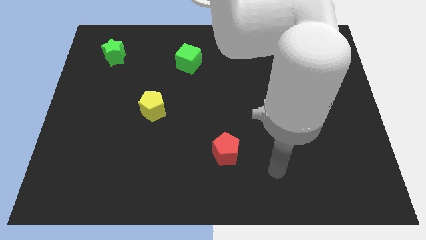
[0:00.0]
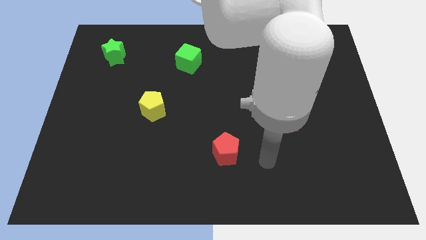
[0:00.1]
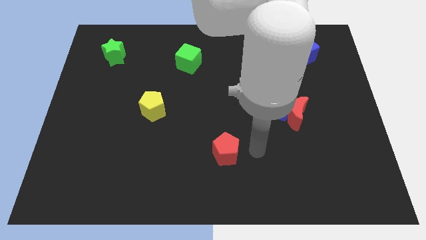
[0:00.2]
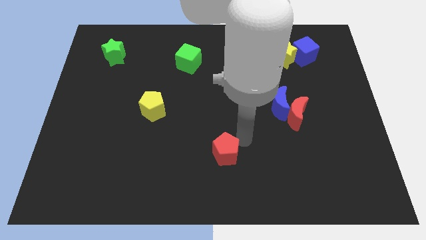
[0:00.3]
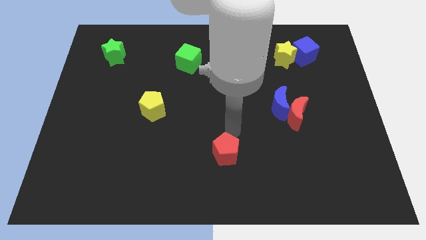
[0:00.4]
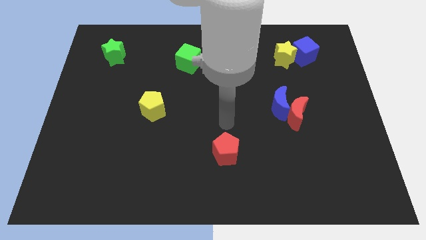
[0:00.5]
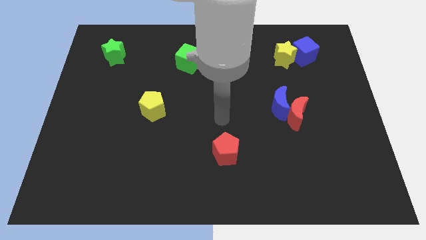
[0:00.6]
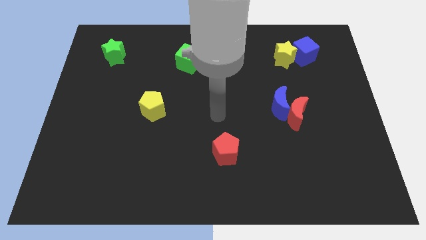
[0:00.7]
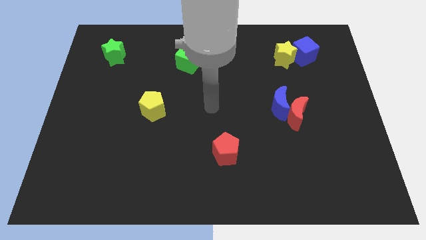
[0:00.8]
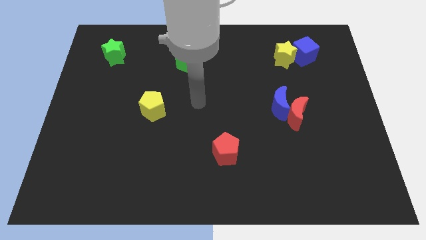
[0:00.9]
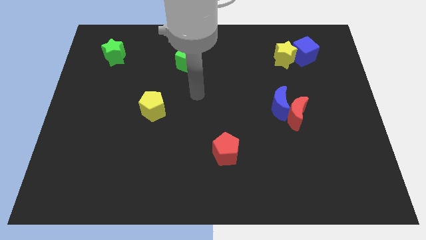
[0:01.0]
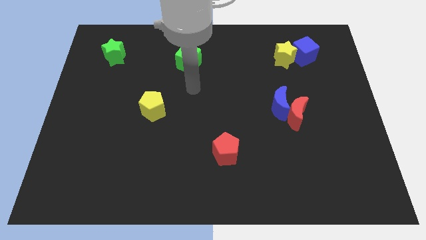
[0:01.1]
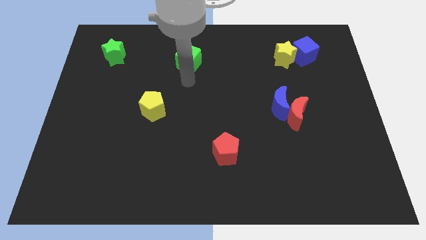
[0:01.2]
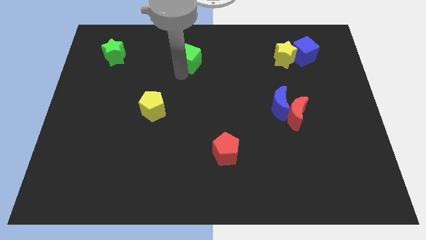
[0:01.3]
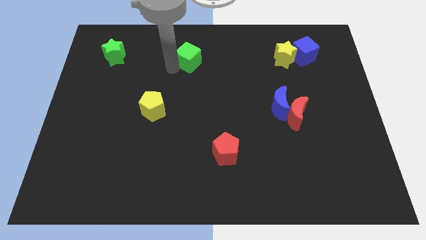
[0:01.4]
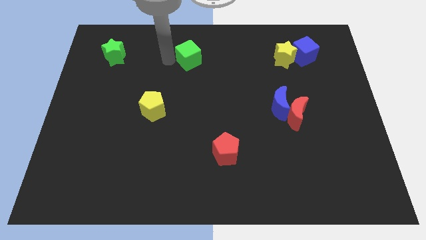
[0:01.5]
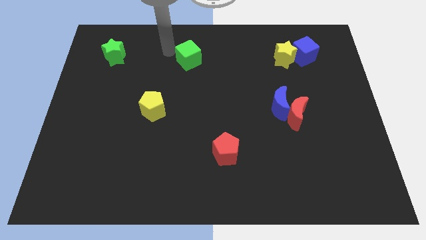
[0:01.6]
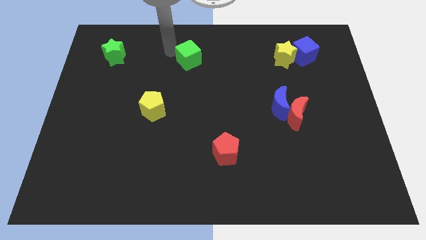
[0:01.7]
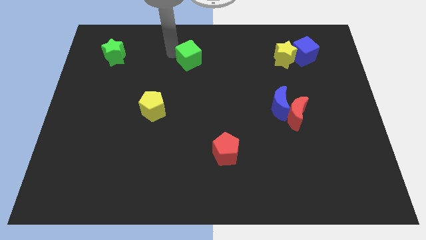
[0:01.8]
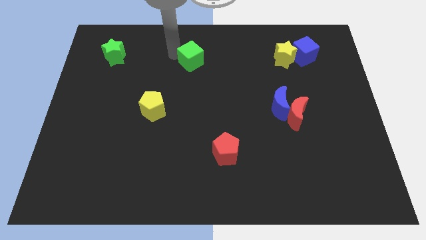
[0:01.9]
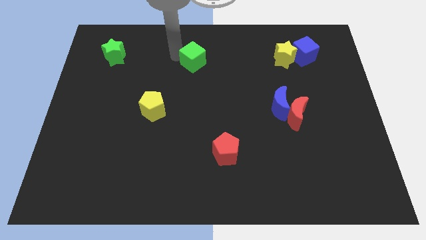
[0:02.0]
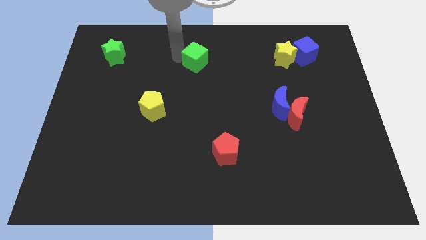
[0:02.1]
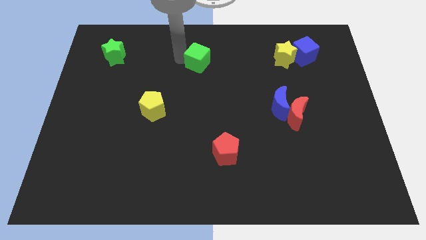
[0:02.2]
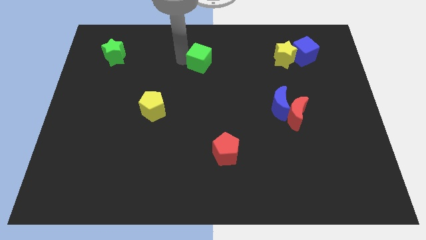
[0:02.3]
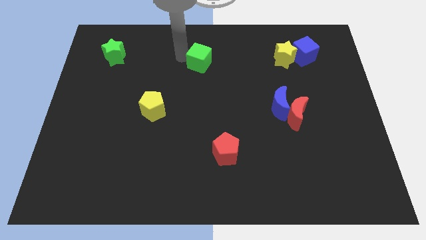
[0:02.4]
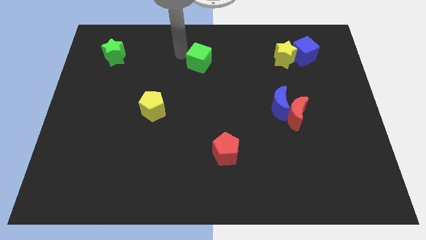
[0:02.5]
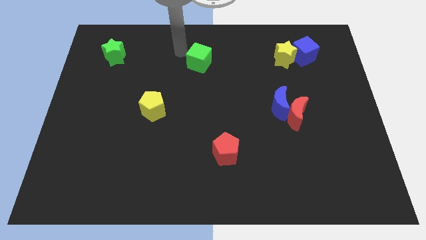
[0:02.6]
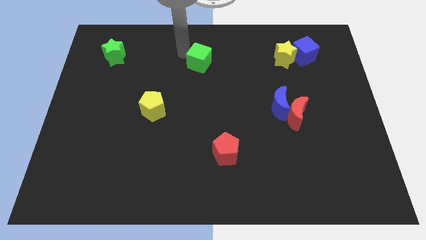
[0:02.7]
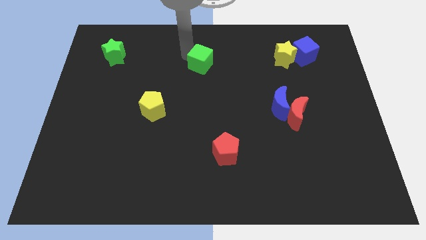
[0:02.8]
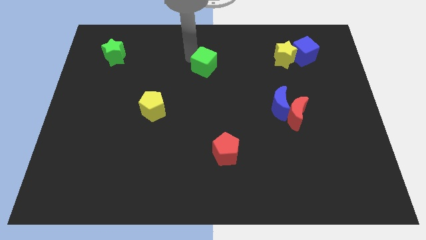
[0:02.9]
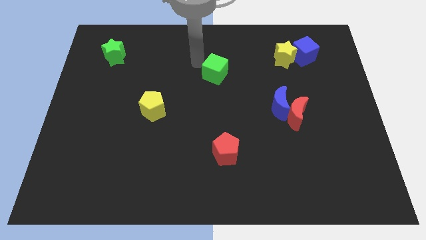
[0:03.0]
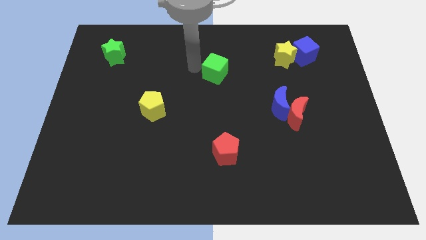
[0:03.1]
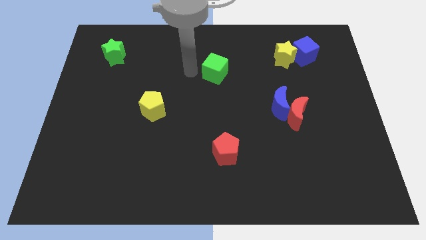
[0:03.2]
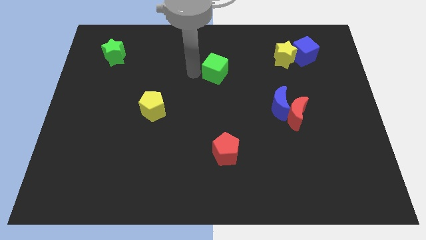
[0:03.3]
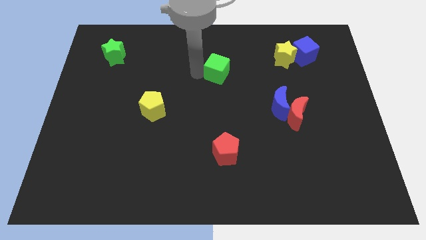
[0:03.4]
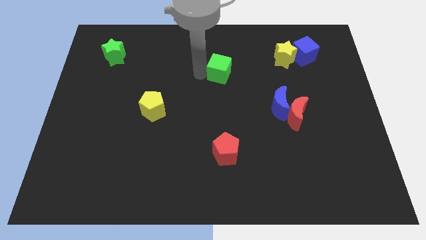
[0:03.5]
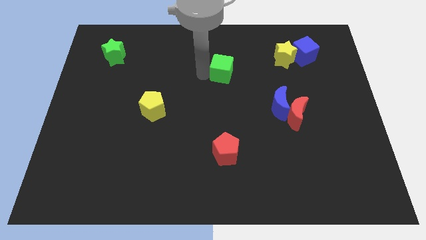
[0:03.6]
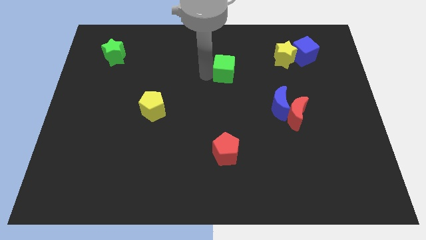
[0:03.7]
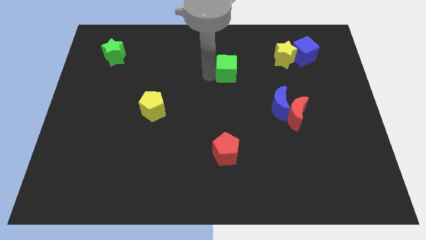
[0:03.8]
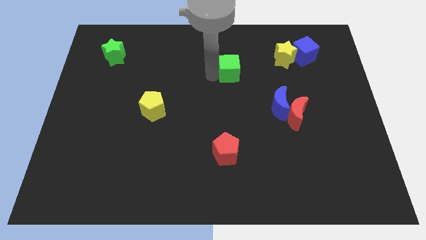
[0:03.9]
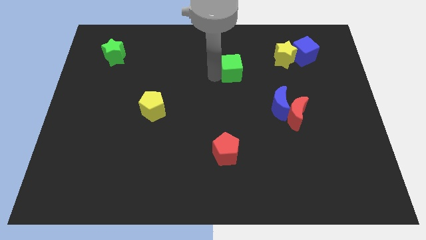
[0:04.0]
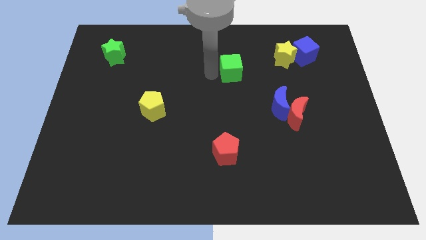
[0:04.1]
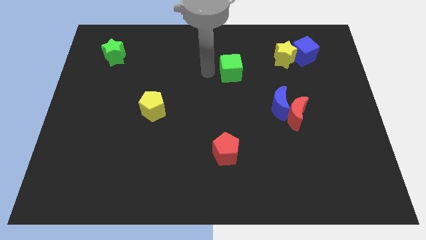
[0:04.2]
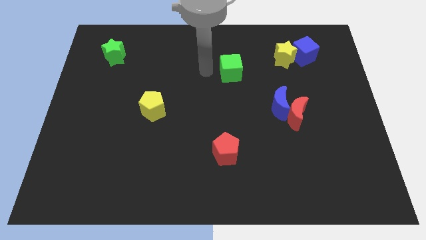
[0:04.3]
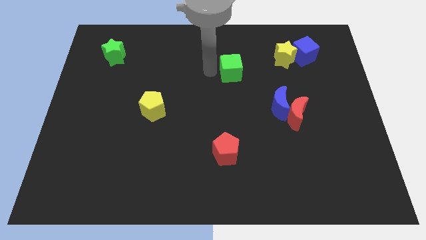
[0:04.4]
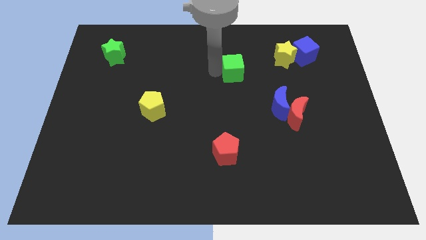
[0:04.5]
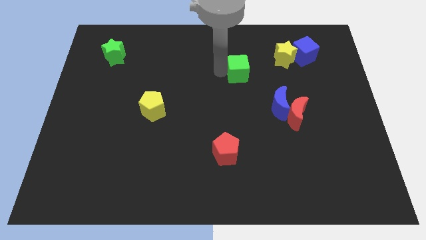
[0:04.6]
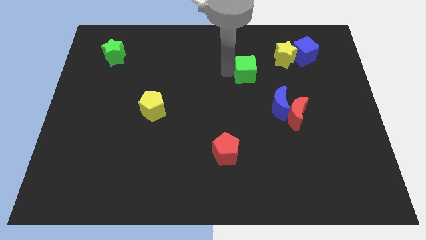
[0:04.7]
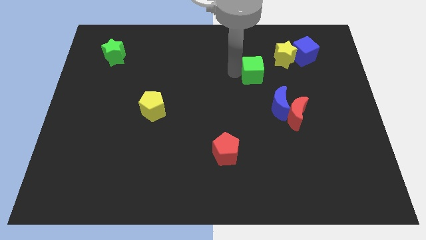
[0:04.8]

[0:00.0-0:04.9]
slide the green cube to the bottom left of the yellow star

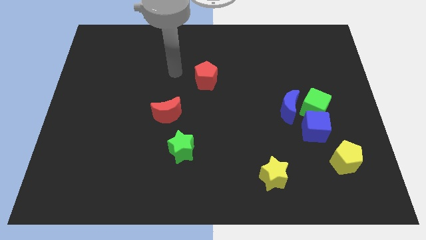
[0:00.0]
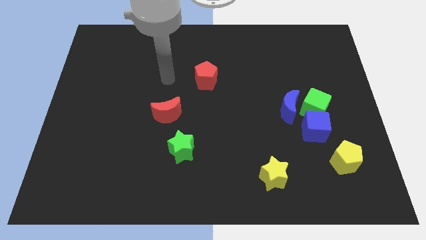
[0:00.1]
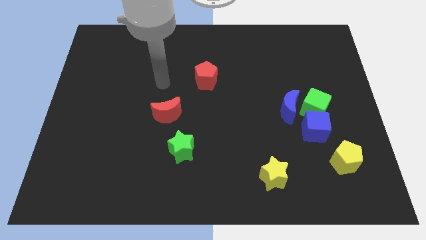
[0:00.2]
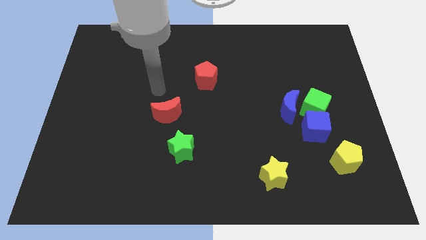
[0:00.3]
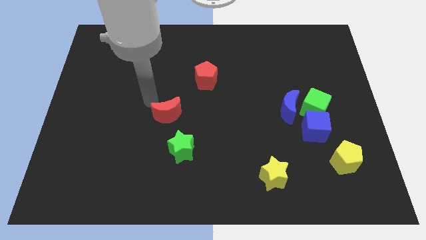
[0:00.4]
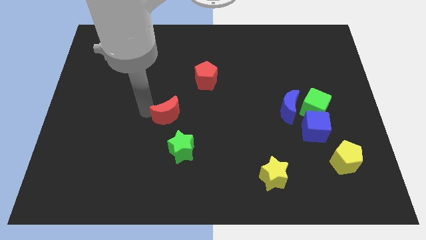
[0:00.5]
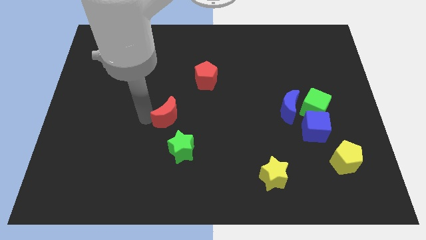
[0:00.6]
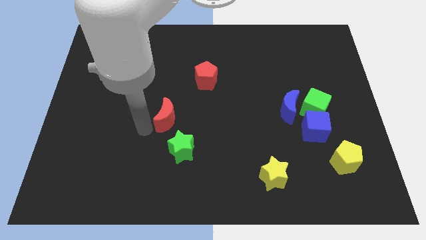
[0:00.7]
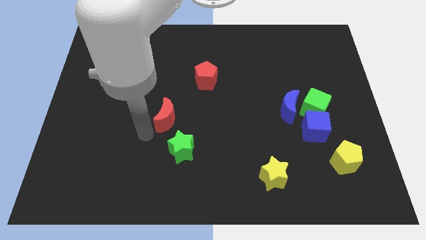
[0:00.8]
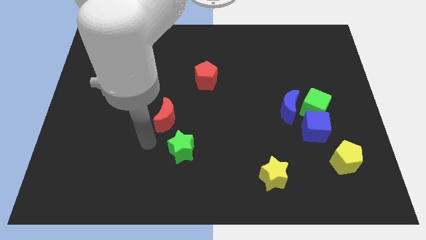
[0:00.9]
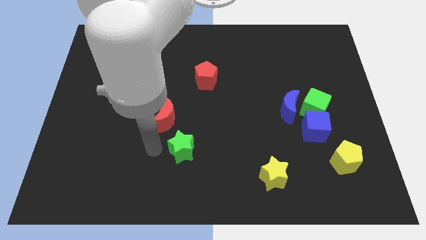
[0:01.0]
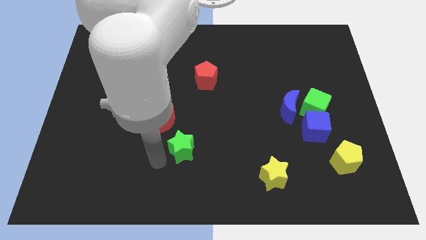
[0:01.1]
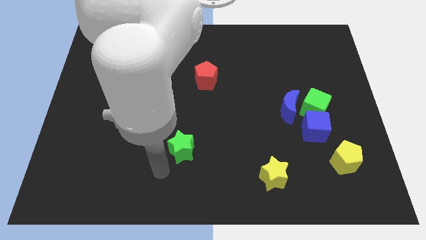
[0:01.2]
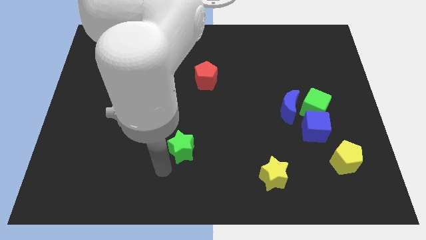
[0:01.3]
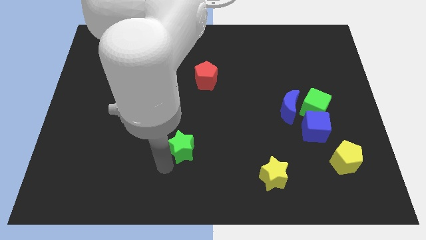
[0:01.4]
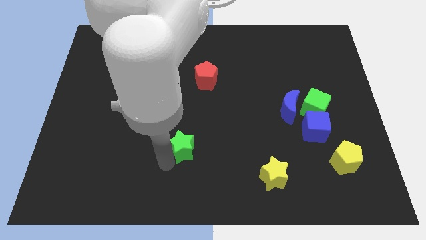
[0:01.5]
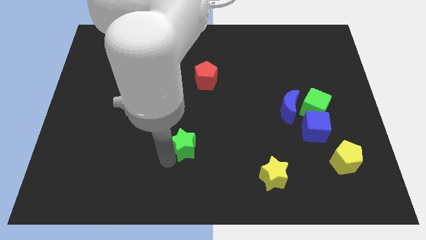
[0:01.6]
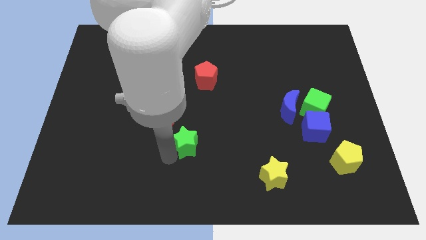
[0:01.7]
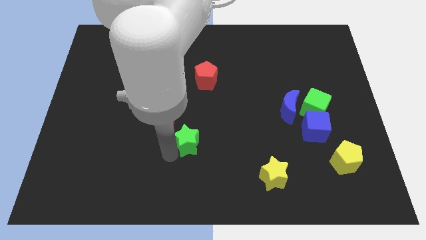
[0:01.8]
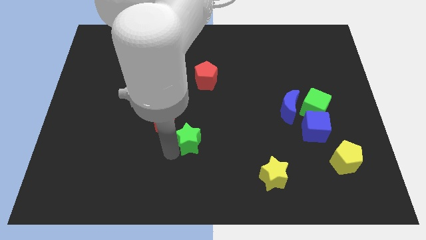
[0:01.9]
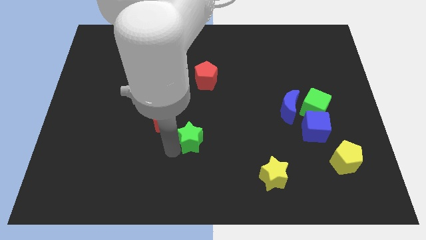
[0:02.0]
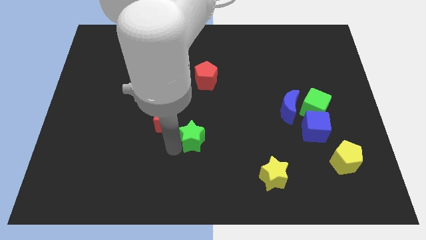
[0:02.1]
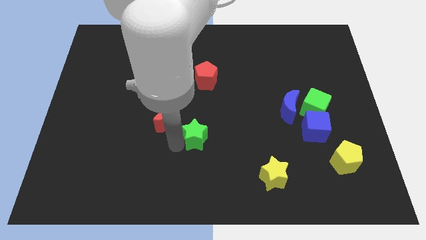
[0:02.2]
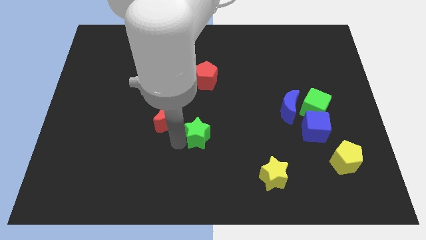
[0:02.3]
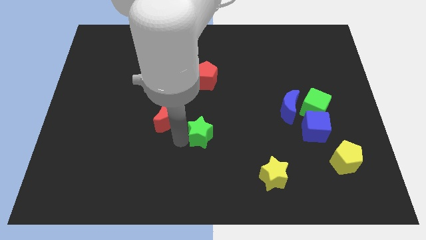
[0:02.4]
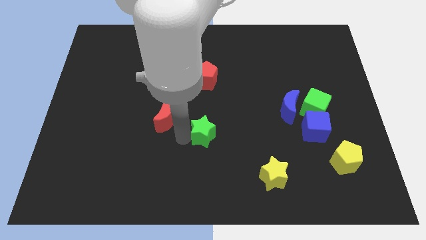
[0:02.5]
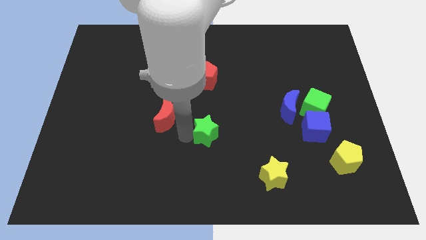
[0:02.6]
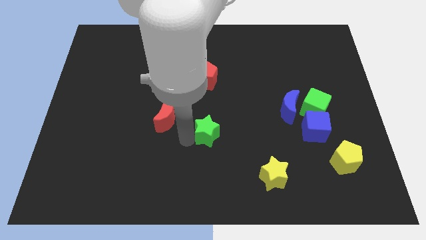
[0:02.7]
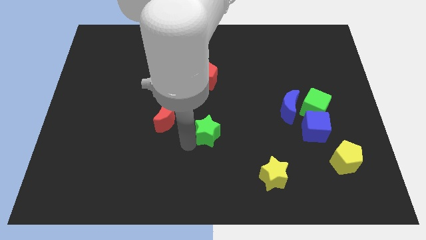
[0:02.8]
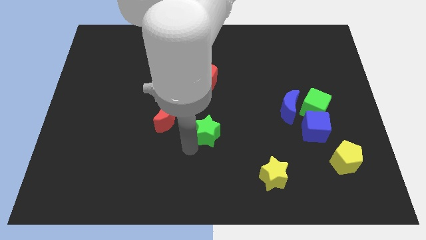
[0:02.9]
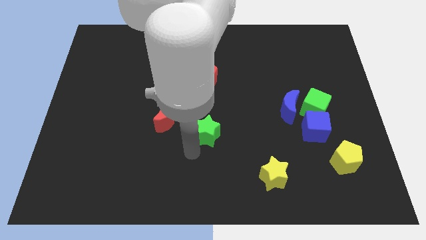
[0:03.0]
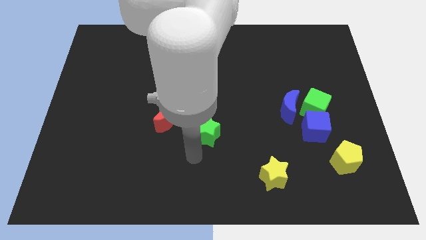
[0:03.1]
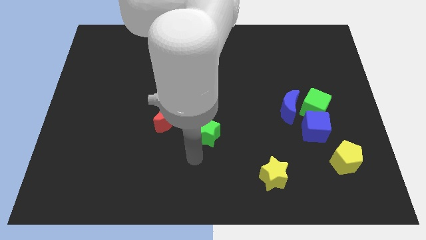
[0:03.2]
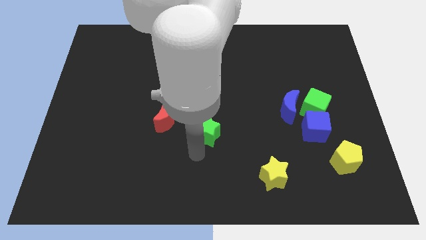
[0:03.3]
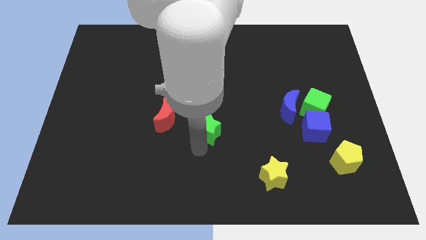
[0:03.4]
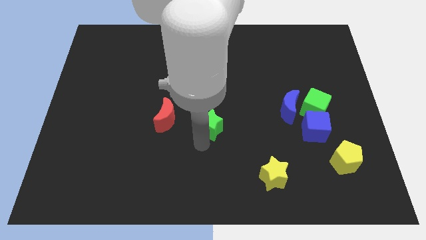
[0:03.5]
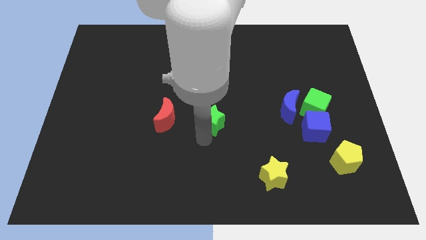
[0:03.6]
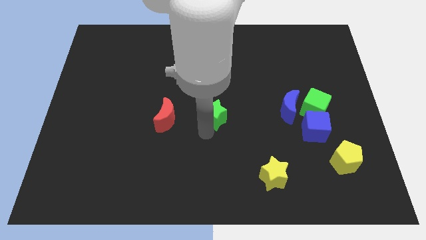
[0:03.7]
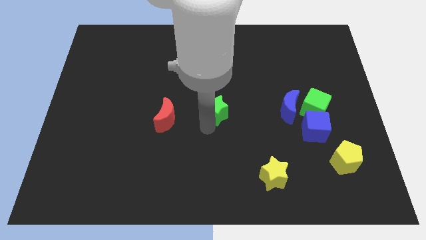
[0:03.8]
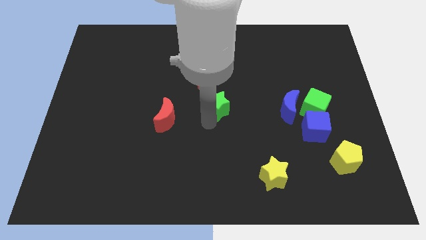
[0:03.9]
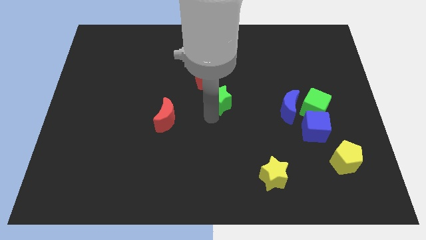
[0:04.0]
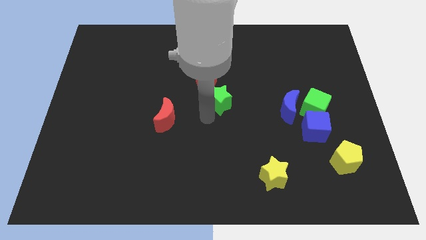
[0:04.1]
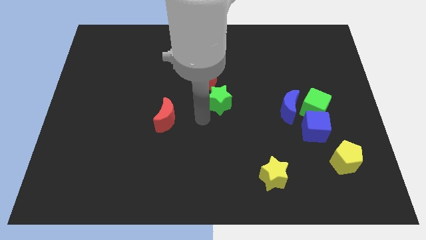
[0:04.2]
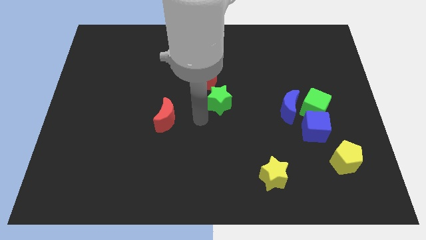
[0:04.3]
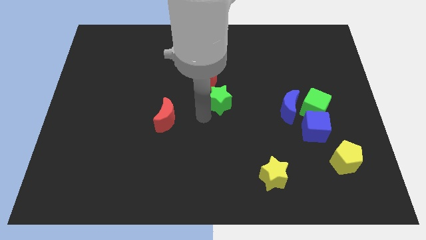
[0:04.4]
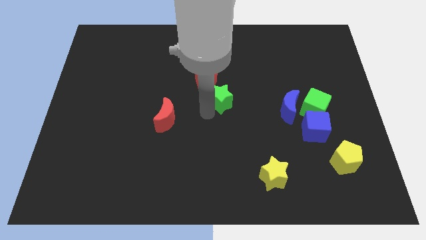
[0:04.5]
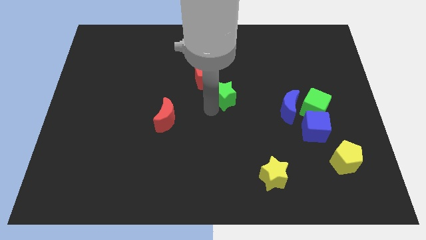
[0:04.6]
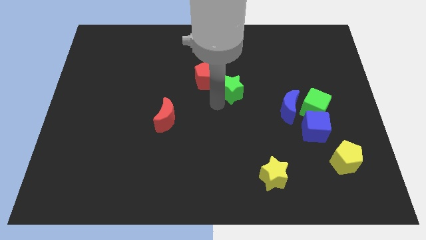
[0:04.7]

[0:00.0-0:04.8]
slide the green star to the right side of the red pentagon
